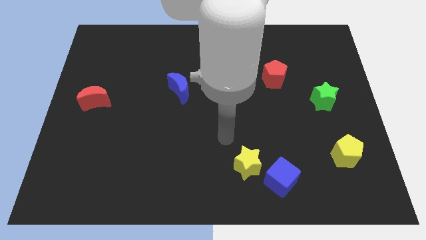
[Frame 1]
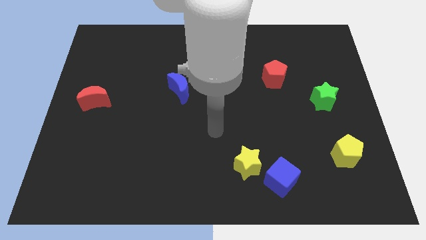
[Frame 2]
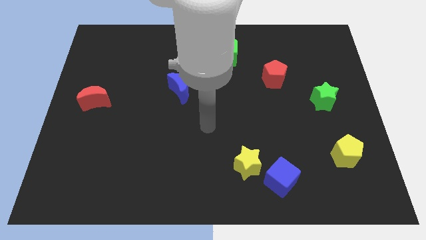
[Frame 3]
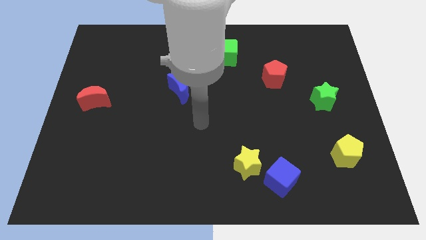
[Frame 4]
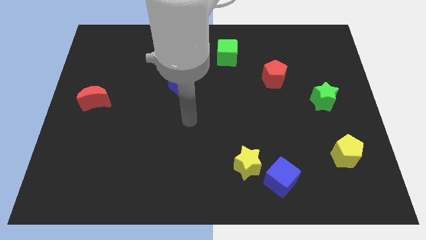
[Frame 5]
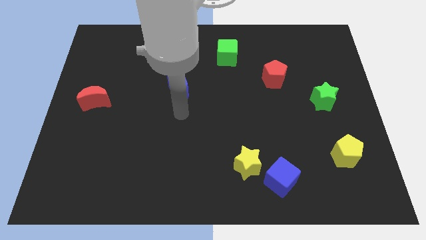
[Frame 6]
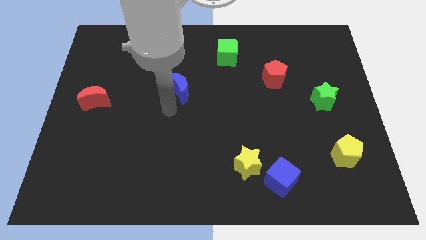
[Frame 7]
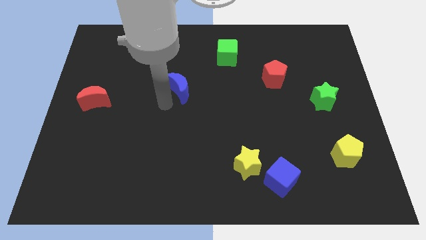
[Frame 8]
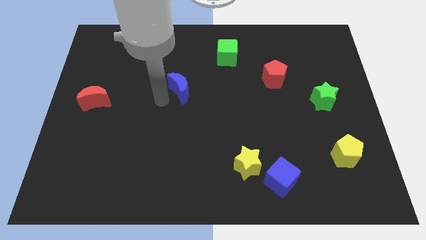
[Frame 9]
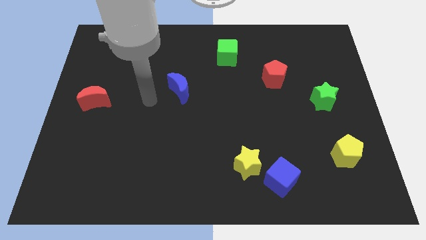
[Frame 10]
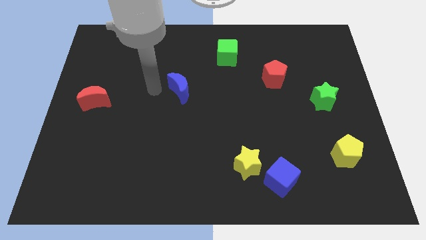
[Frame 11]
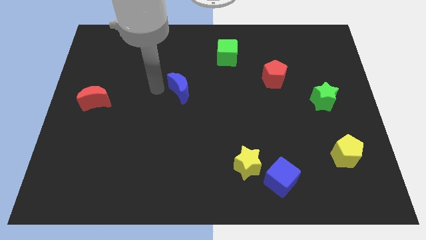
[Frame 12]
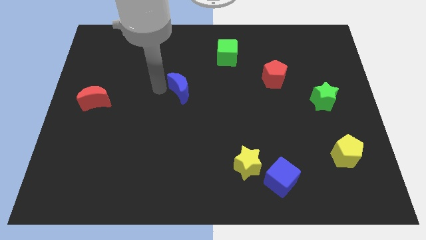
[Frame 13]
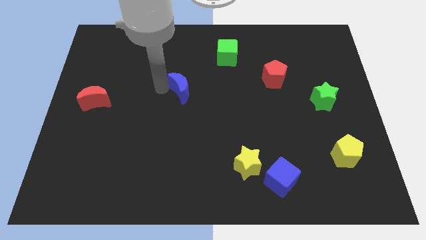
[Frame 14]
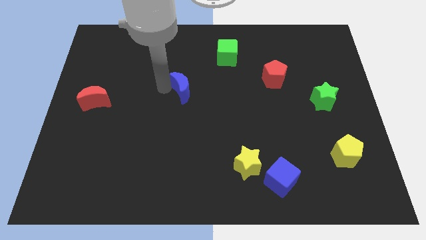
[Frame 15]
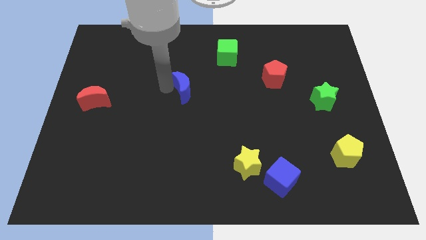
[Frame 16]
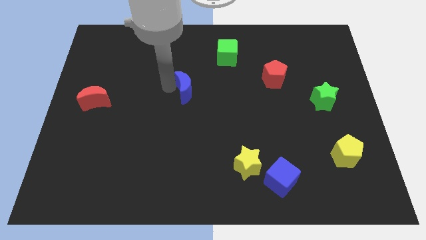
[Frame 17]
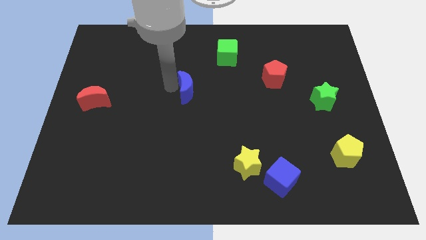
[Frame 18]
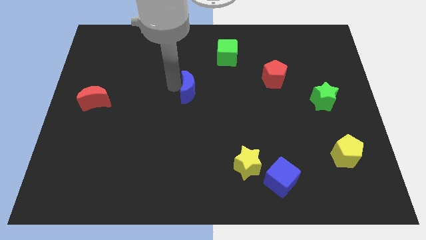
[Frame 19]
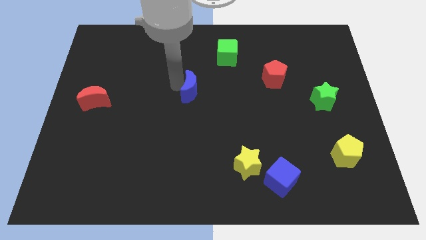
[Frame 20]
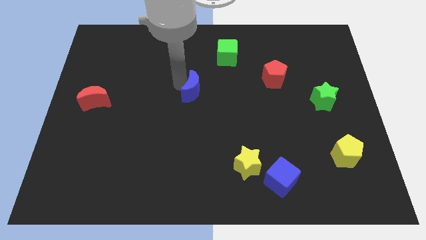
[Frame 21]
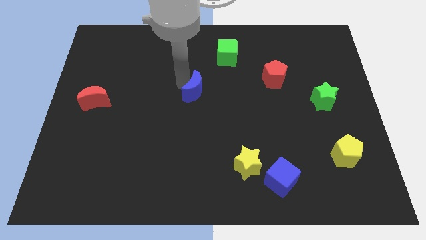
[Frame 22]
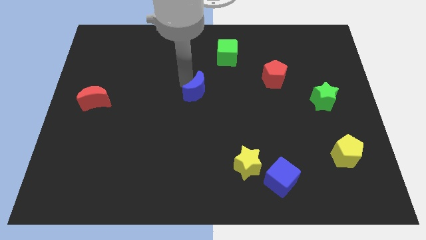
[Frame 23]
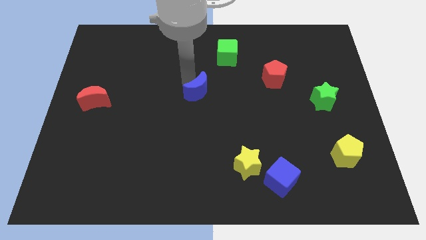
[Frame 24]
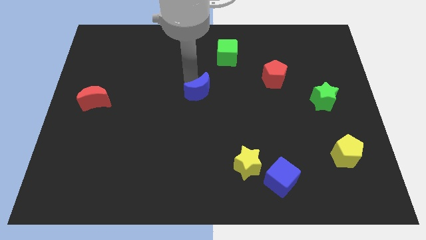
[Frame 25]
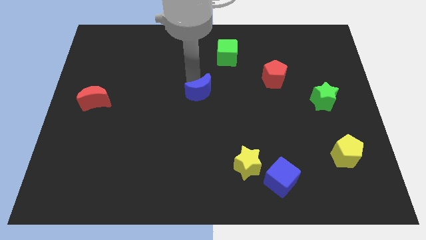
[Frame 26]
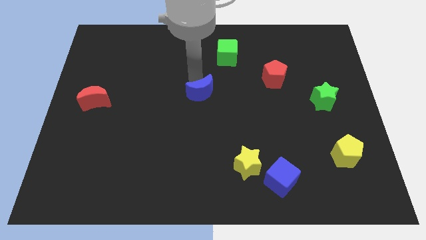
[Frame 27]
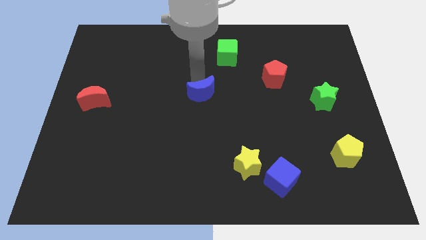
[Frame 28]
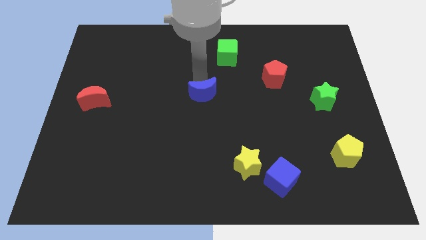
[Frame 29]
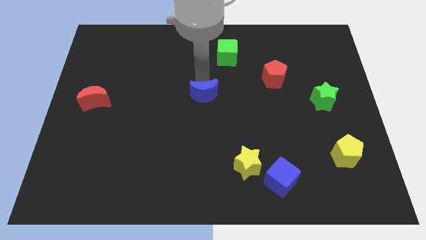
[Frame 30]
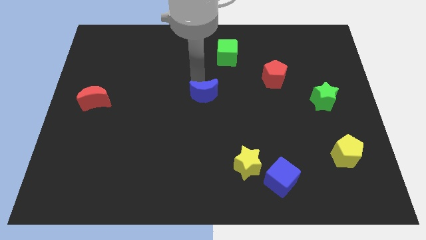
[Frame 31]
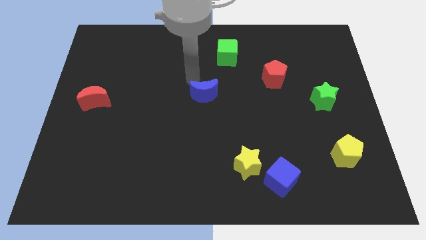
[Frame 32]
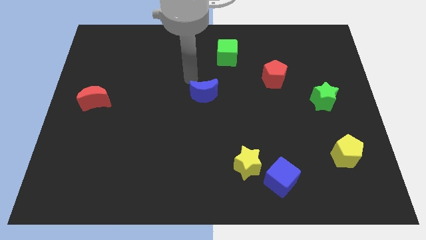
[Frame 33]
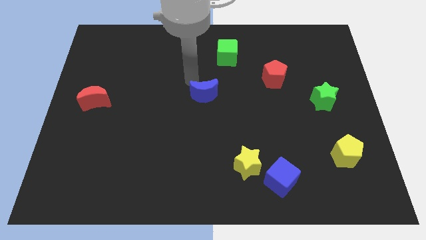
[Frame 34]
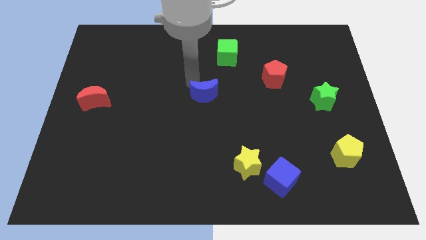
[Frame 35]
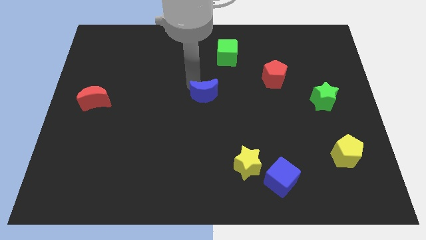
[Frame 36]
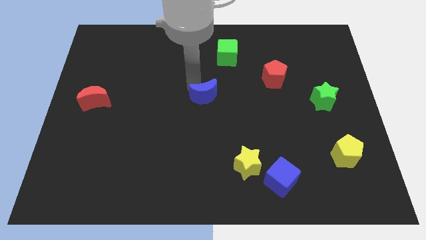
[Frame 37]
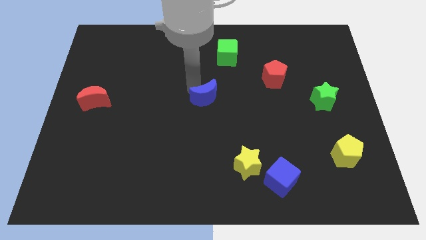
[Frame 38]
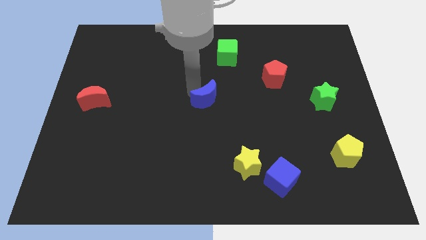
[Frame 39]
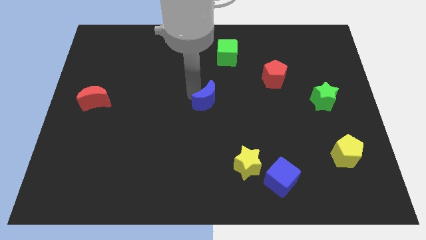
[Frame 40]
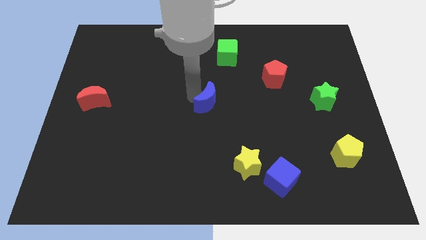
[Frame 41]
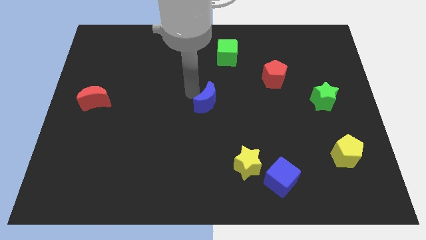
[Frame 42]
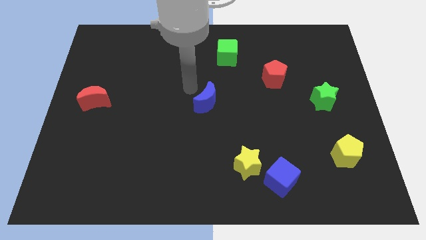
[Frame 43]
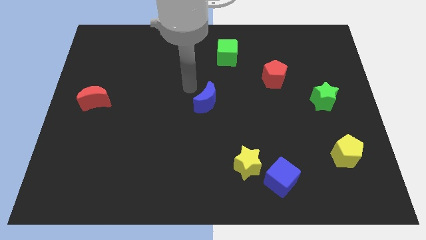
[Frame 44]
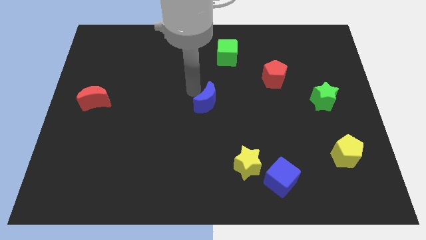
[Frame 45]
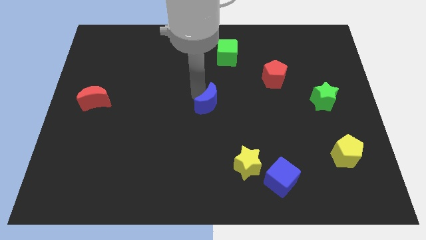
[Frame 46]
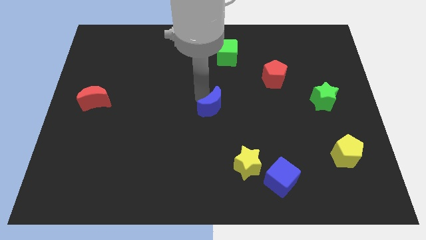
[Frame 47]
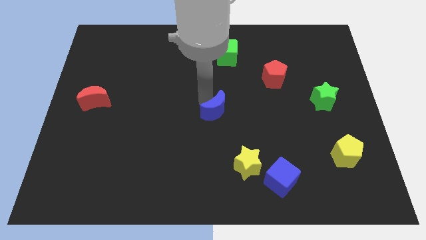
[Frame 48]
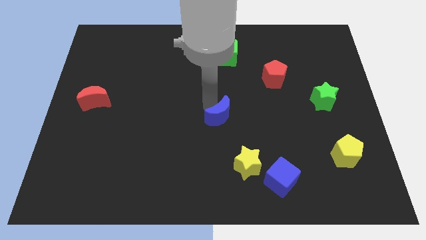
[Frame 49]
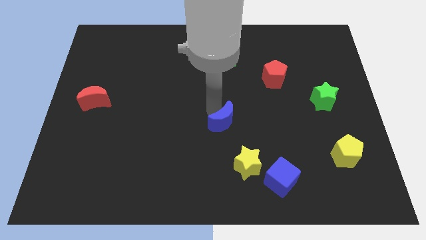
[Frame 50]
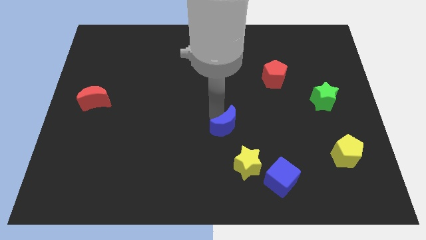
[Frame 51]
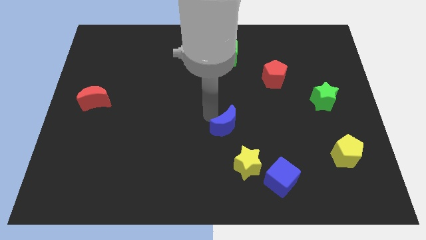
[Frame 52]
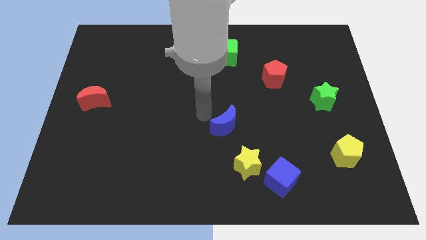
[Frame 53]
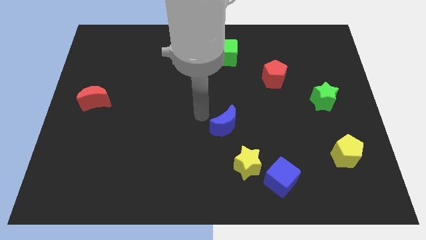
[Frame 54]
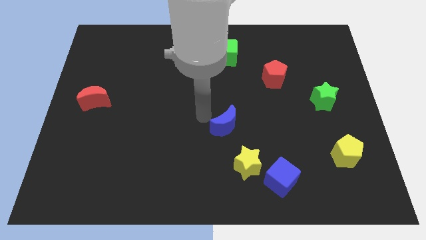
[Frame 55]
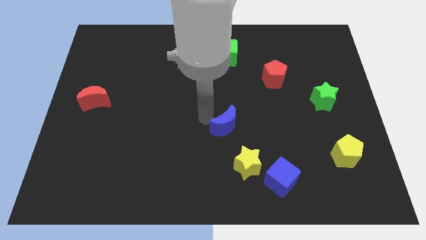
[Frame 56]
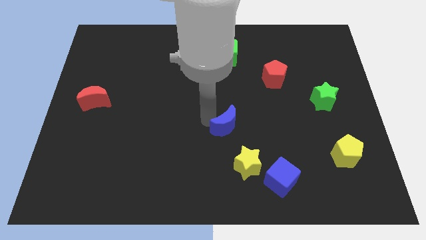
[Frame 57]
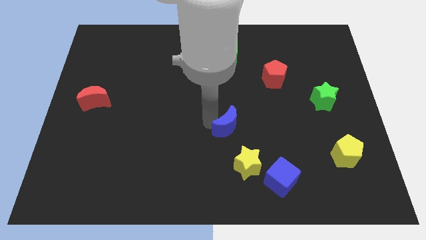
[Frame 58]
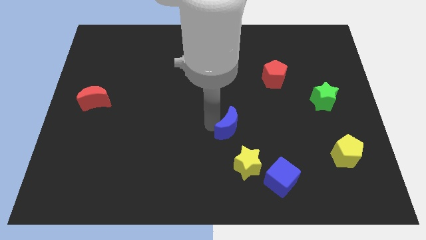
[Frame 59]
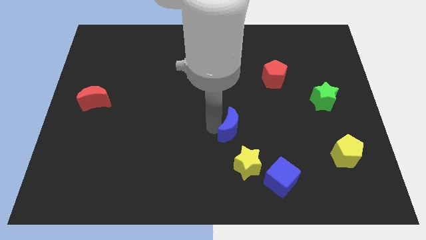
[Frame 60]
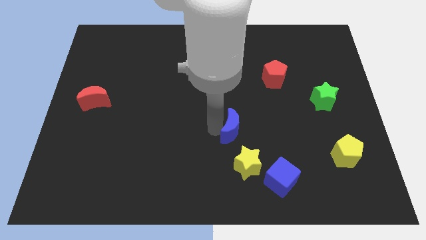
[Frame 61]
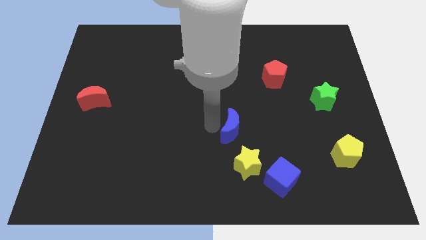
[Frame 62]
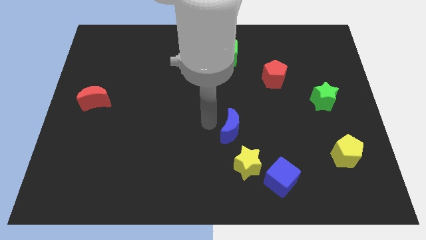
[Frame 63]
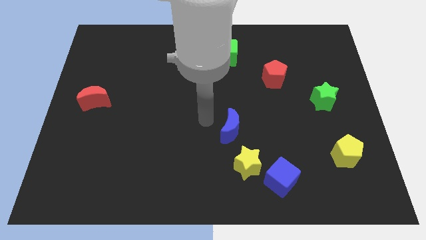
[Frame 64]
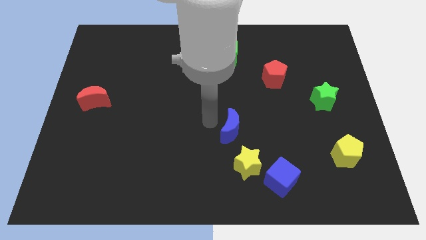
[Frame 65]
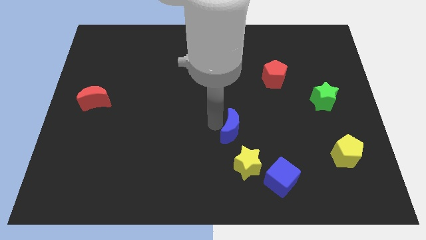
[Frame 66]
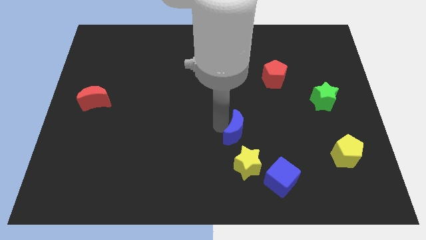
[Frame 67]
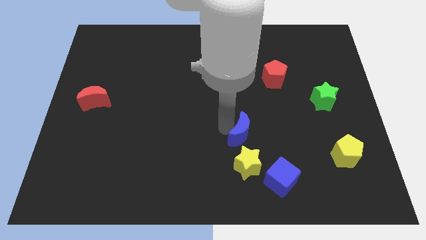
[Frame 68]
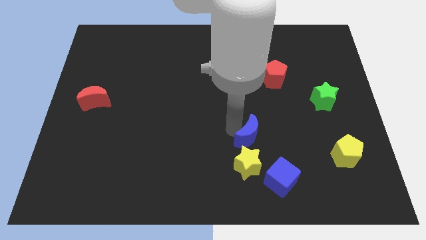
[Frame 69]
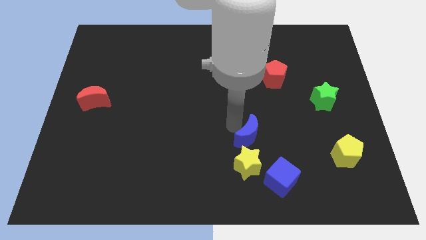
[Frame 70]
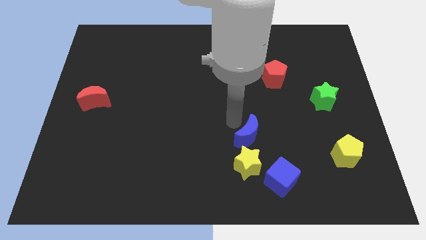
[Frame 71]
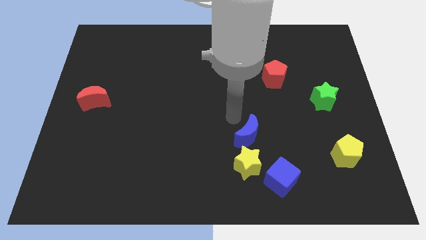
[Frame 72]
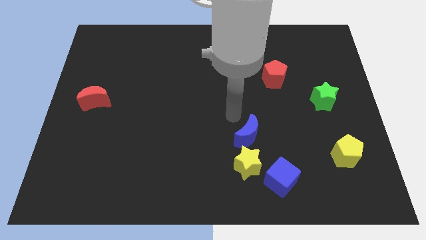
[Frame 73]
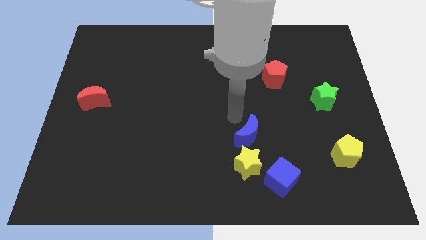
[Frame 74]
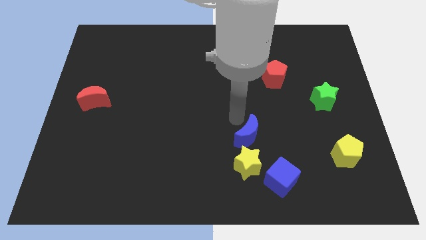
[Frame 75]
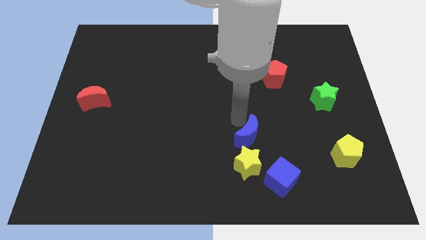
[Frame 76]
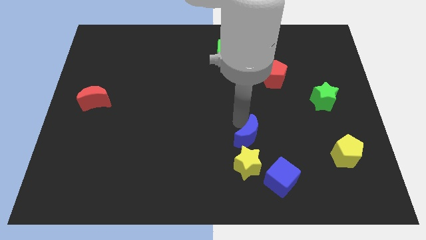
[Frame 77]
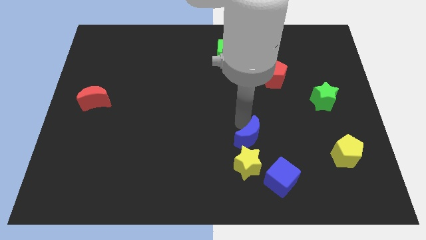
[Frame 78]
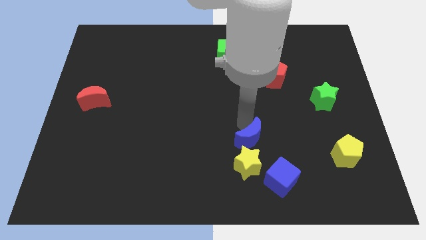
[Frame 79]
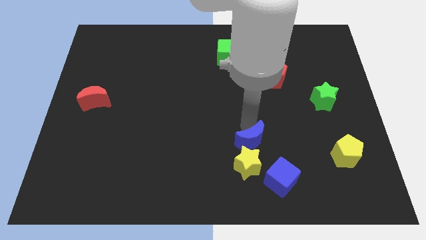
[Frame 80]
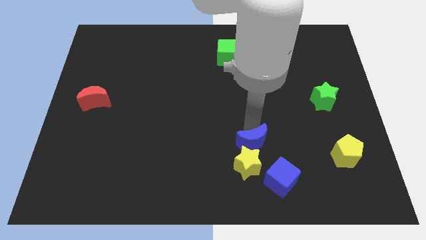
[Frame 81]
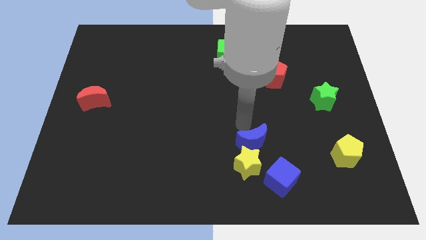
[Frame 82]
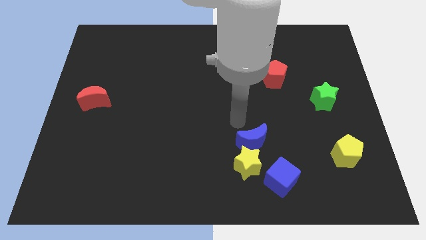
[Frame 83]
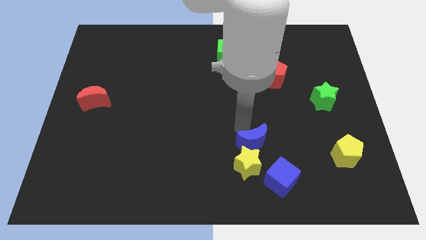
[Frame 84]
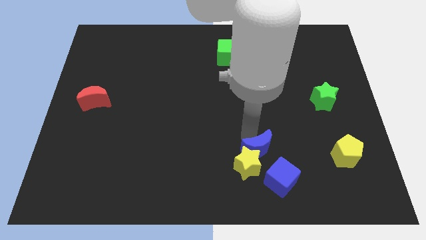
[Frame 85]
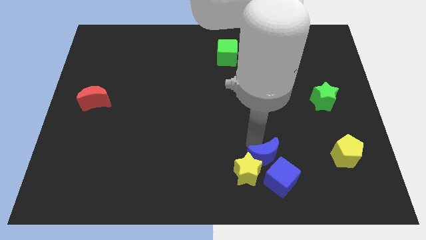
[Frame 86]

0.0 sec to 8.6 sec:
put the blue moon next to the blue cube
